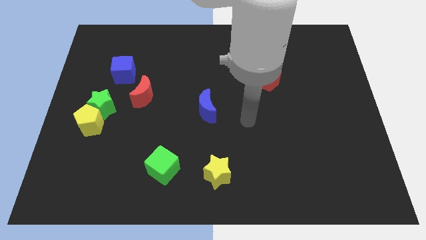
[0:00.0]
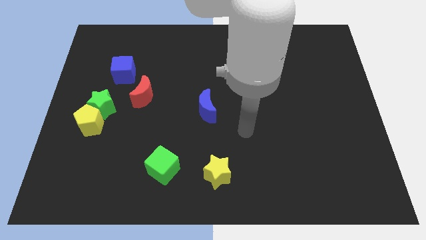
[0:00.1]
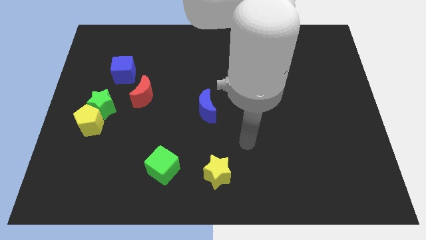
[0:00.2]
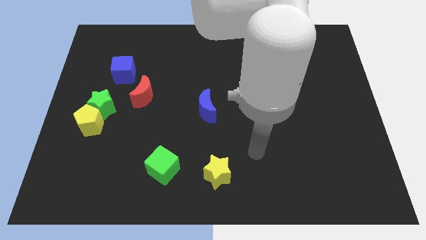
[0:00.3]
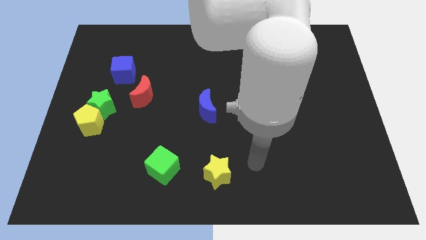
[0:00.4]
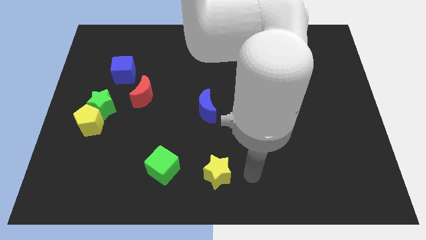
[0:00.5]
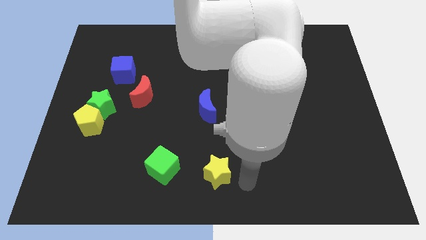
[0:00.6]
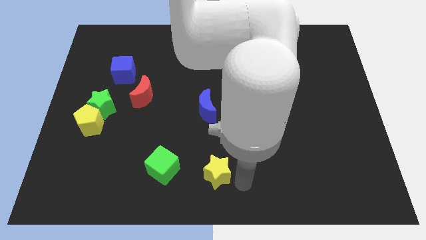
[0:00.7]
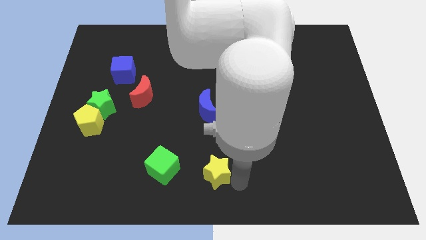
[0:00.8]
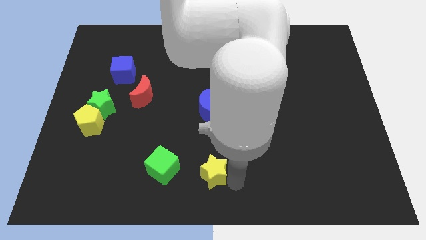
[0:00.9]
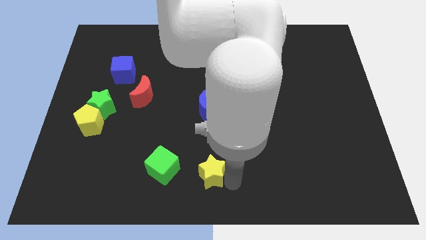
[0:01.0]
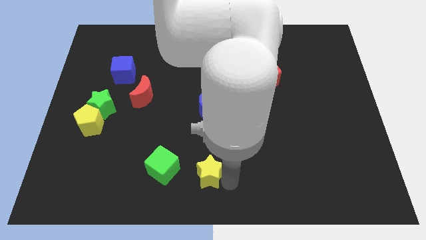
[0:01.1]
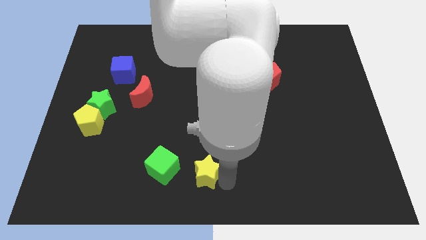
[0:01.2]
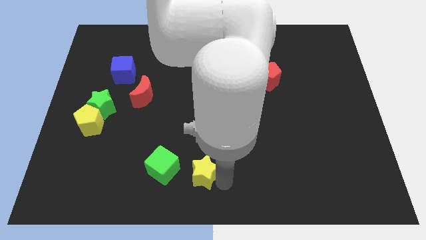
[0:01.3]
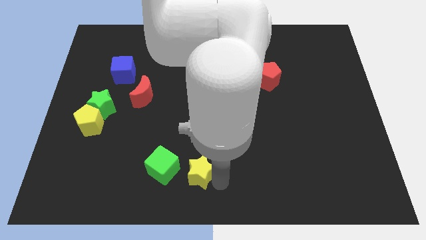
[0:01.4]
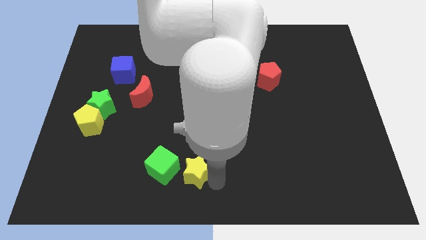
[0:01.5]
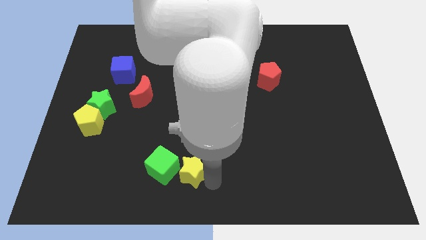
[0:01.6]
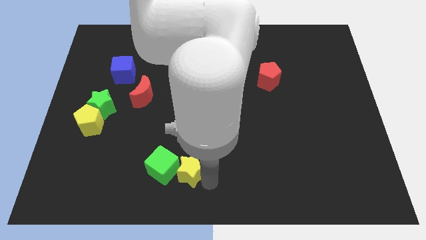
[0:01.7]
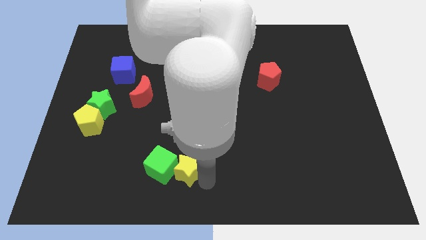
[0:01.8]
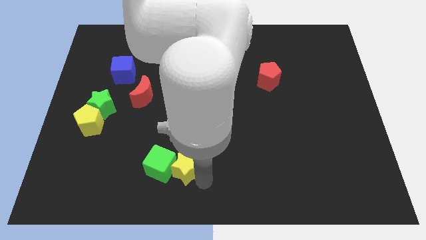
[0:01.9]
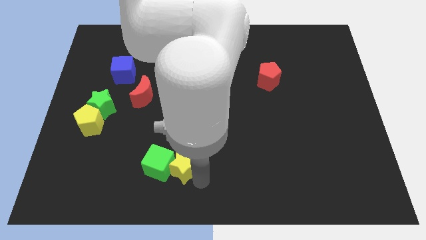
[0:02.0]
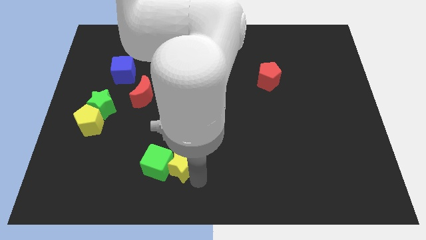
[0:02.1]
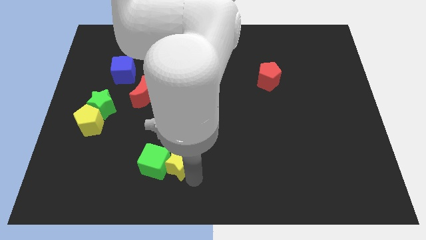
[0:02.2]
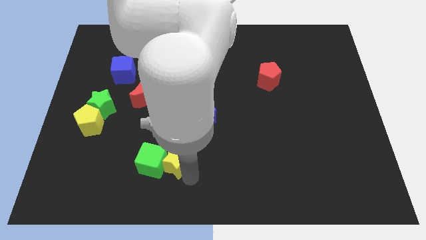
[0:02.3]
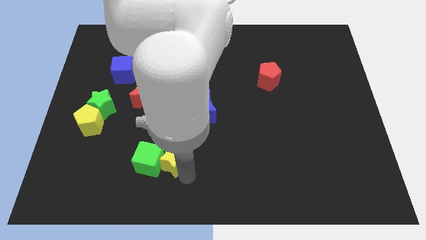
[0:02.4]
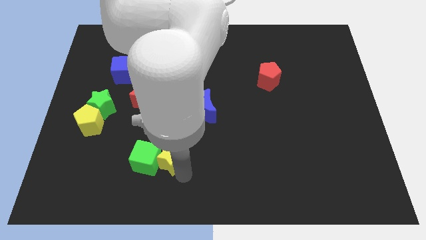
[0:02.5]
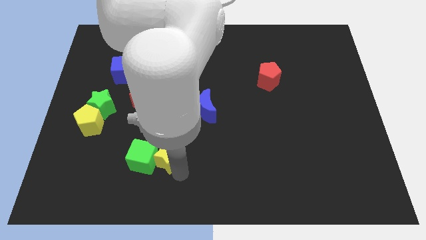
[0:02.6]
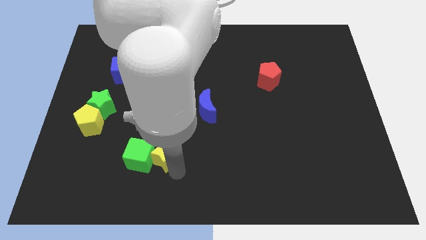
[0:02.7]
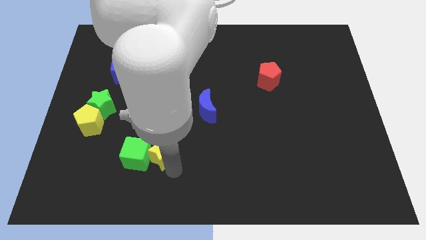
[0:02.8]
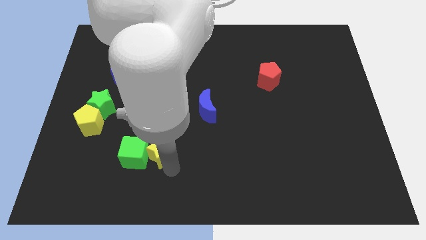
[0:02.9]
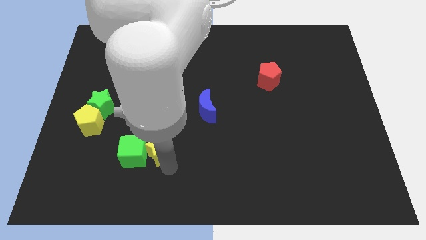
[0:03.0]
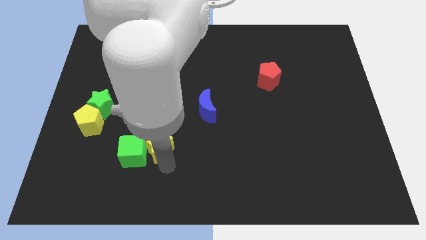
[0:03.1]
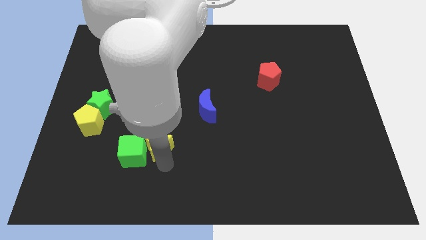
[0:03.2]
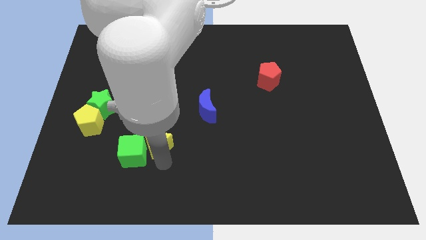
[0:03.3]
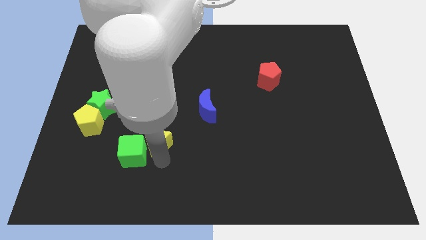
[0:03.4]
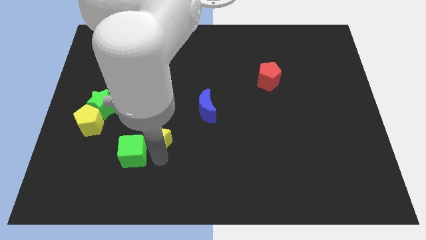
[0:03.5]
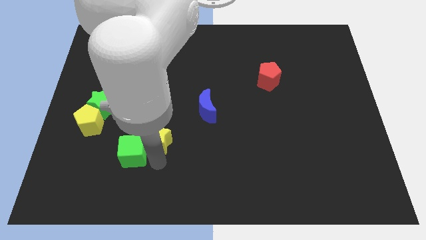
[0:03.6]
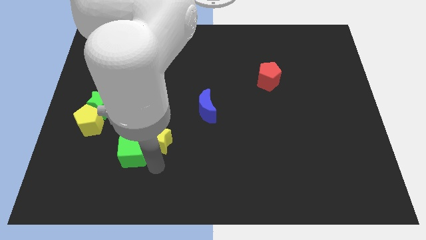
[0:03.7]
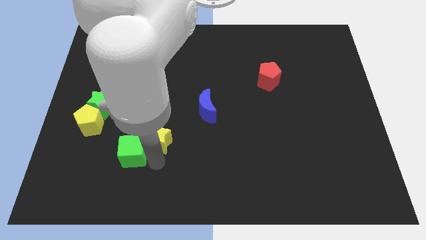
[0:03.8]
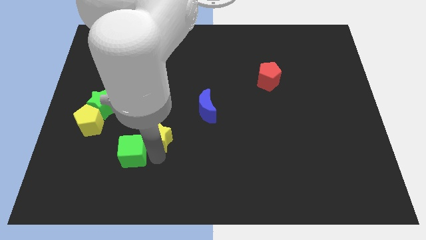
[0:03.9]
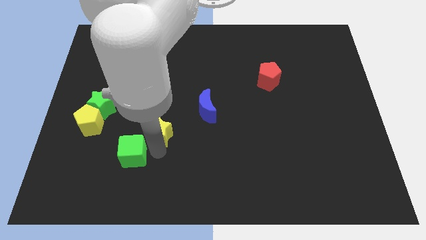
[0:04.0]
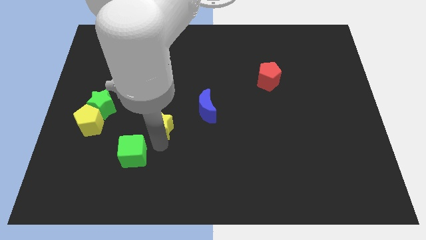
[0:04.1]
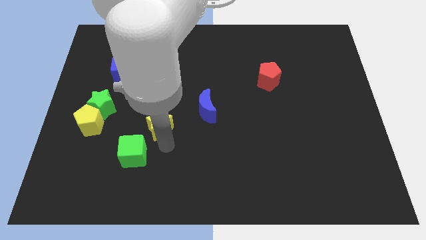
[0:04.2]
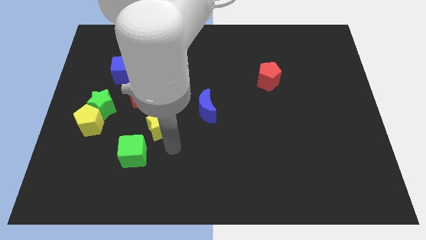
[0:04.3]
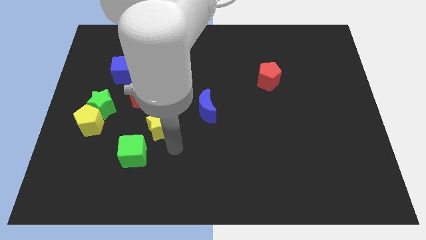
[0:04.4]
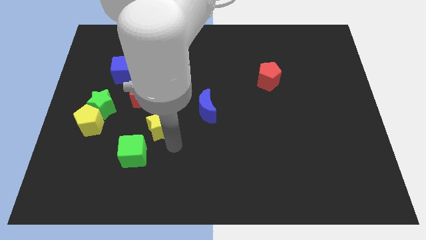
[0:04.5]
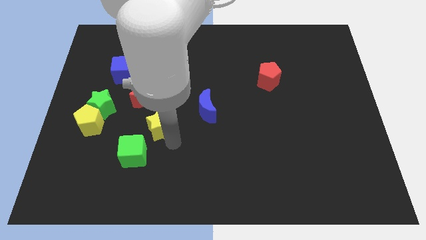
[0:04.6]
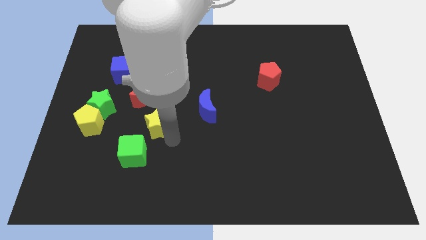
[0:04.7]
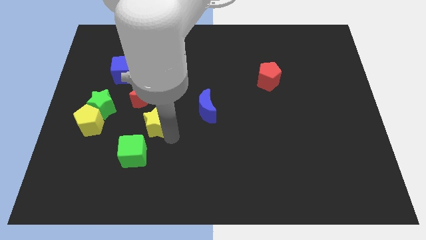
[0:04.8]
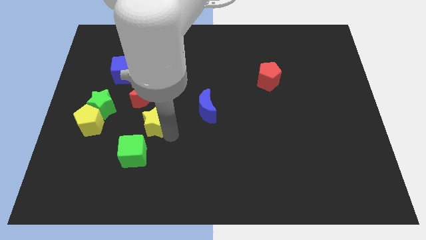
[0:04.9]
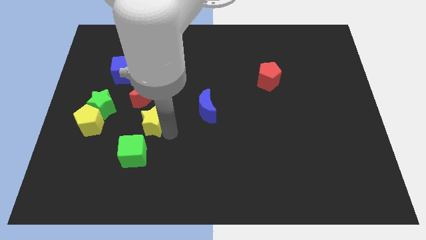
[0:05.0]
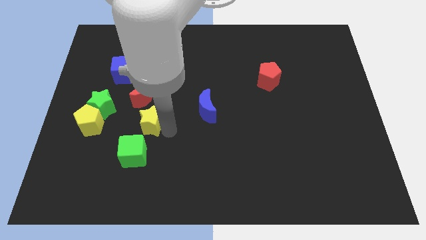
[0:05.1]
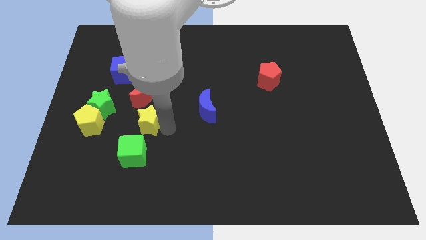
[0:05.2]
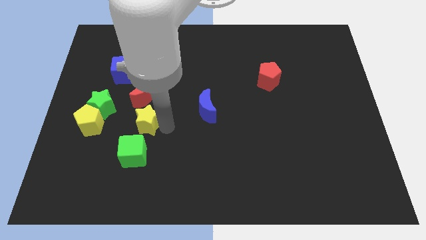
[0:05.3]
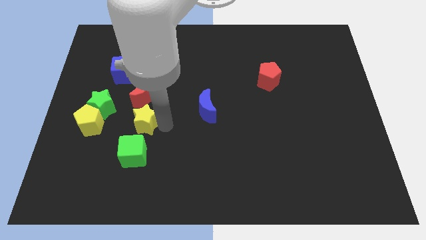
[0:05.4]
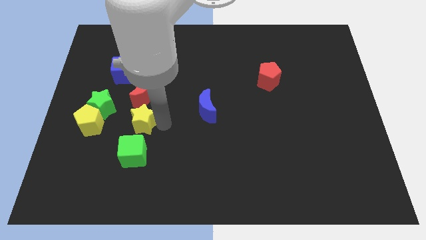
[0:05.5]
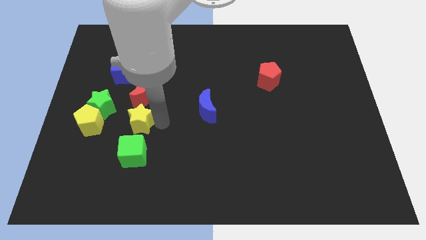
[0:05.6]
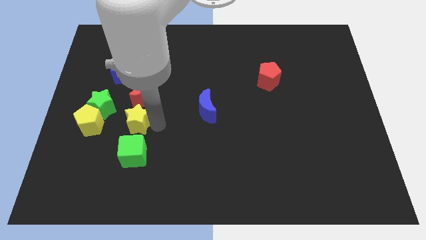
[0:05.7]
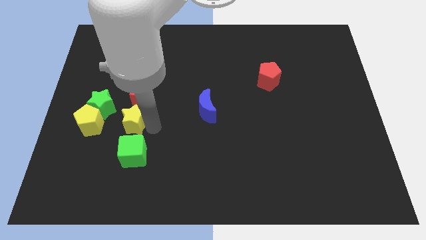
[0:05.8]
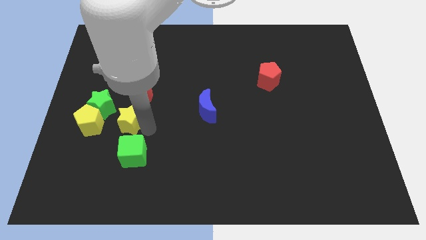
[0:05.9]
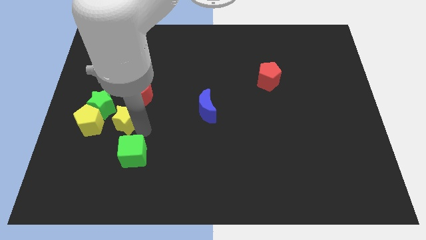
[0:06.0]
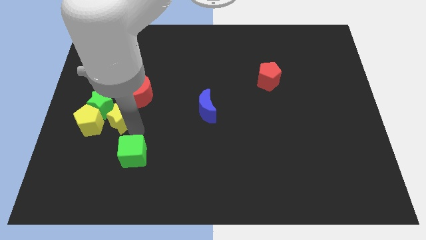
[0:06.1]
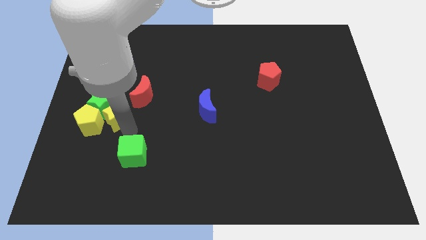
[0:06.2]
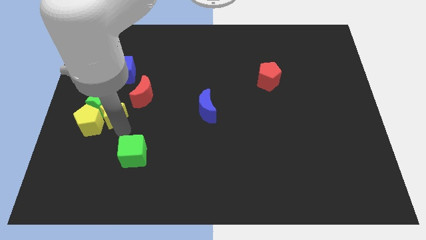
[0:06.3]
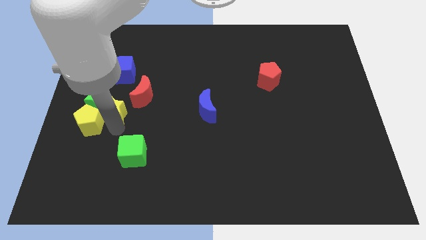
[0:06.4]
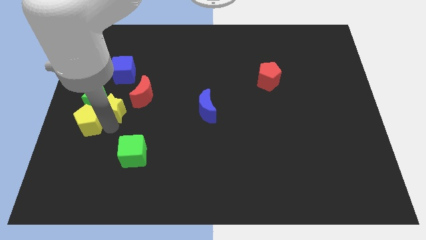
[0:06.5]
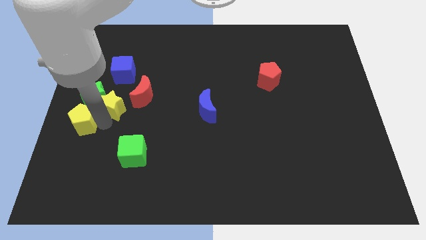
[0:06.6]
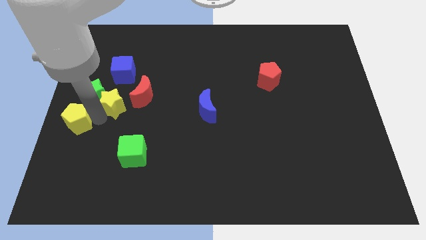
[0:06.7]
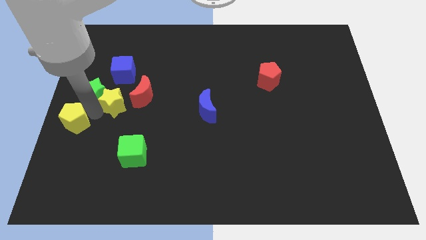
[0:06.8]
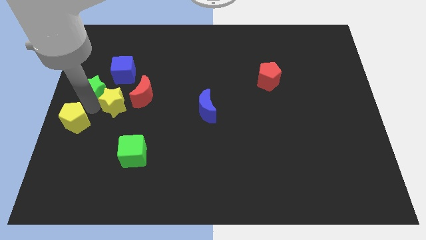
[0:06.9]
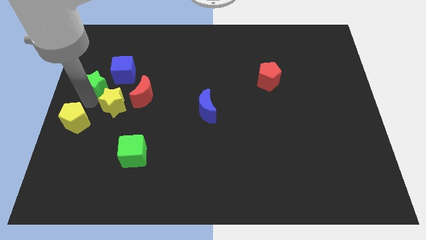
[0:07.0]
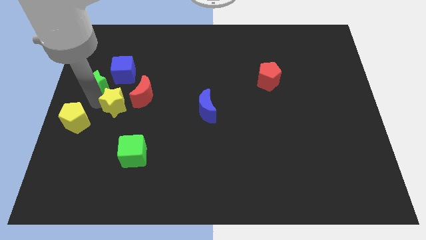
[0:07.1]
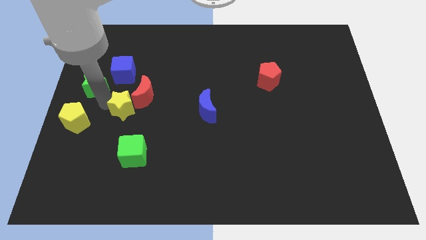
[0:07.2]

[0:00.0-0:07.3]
push the yellow star close to the red moon

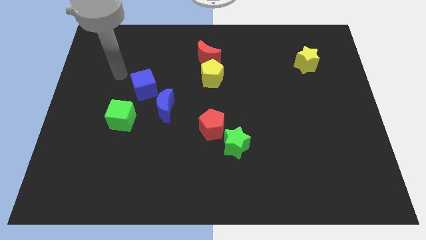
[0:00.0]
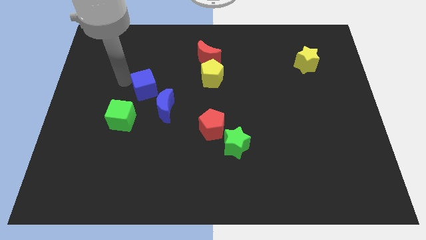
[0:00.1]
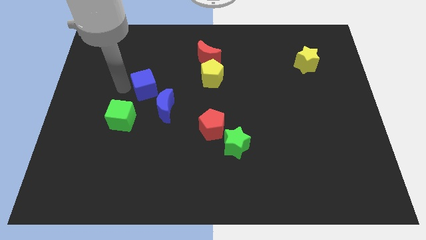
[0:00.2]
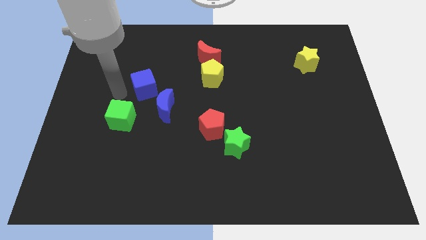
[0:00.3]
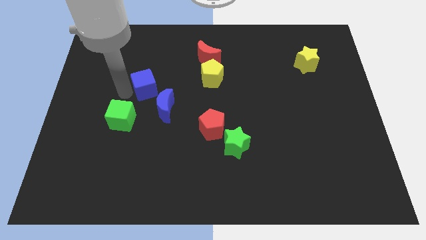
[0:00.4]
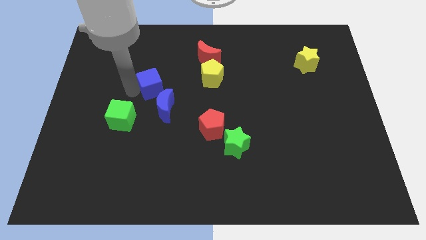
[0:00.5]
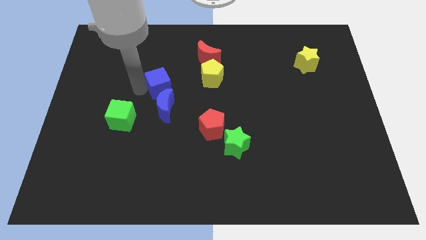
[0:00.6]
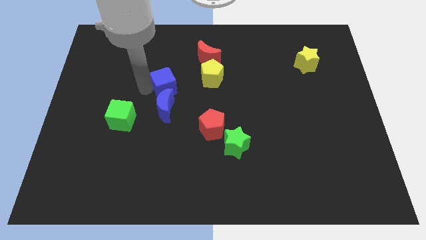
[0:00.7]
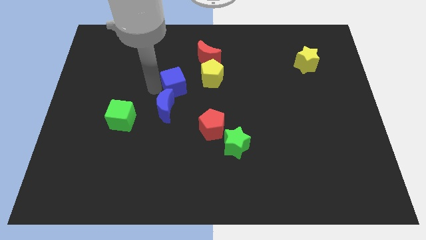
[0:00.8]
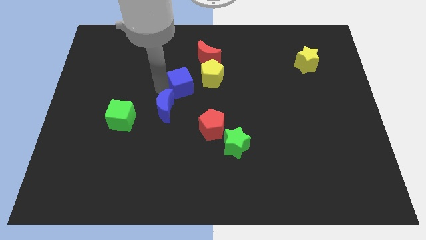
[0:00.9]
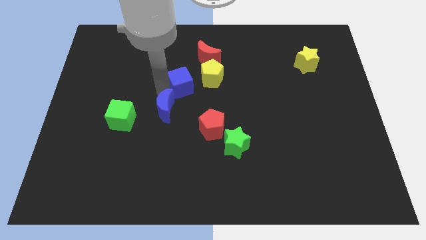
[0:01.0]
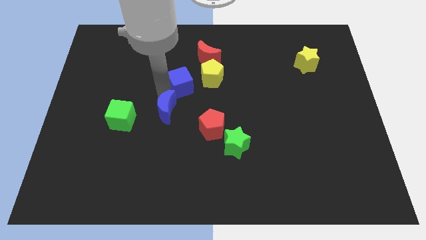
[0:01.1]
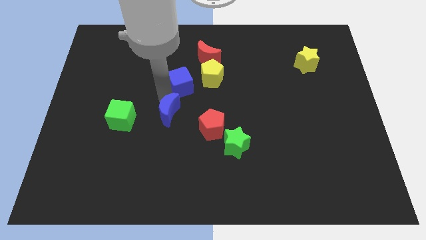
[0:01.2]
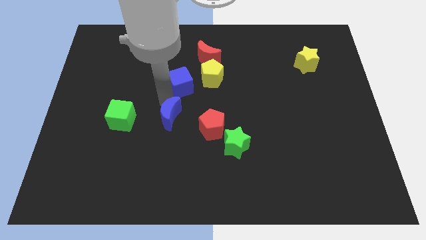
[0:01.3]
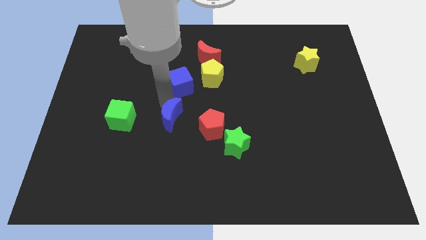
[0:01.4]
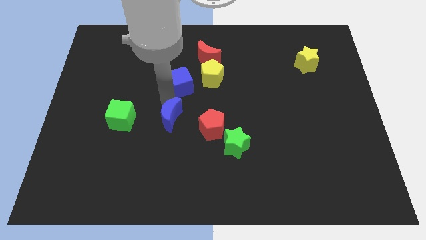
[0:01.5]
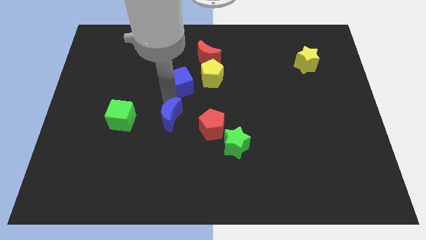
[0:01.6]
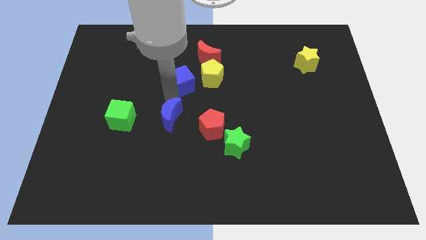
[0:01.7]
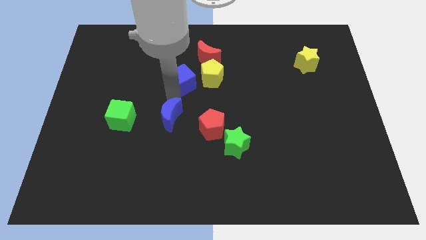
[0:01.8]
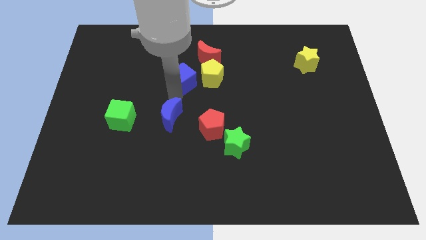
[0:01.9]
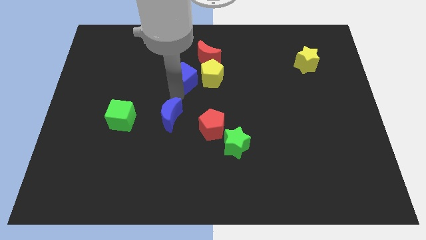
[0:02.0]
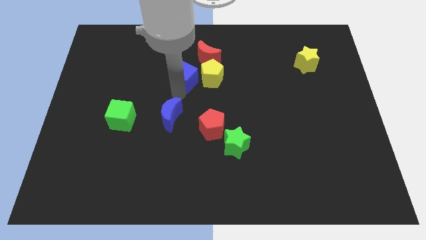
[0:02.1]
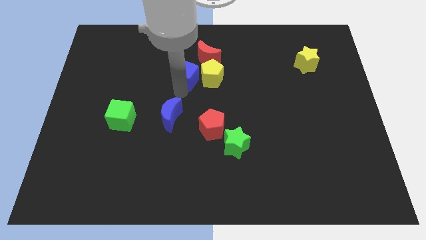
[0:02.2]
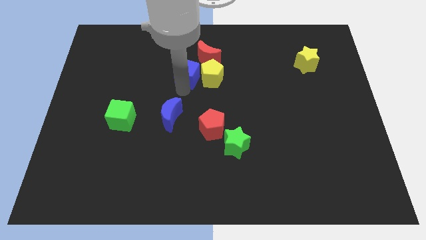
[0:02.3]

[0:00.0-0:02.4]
put the blue cube towards the yellow pentagon
